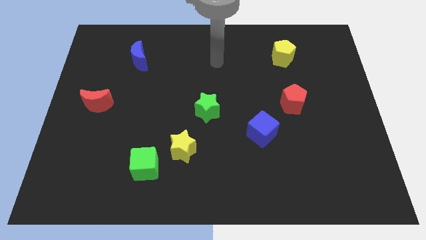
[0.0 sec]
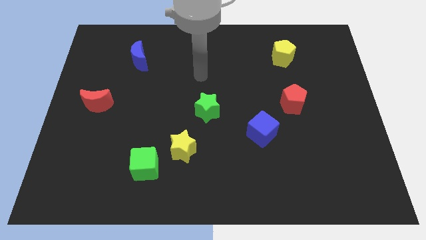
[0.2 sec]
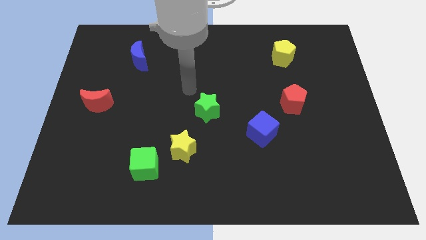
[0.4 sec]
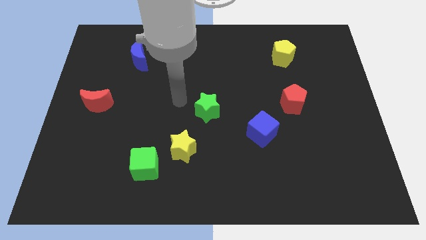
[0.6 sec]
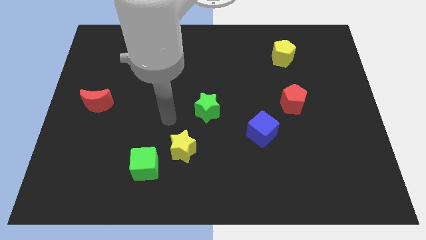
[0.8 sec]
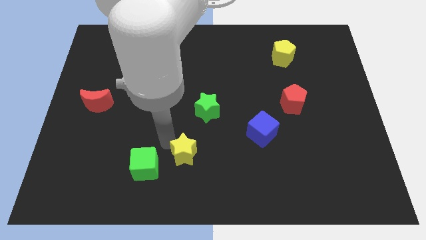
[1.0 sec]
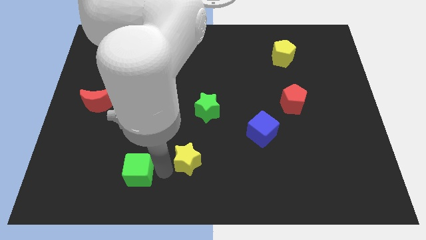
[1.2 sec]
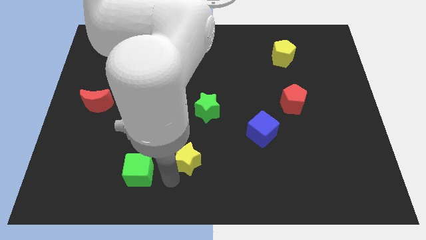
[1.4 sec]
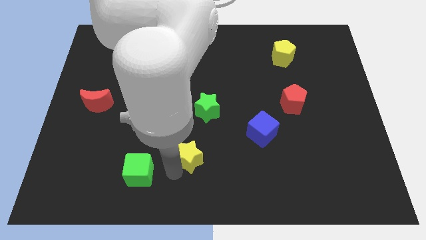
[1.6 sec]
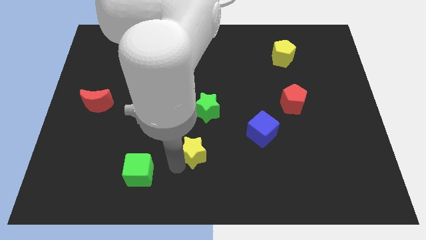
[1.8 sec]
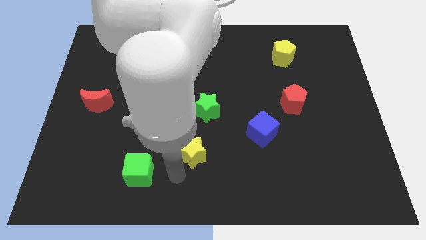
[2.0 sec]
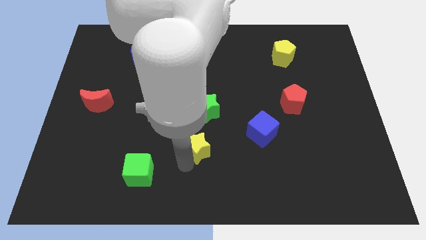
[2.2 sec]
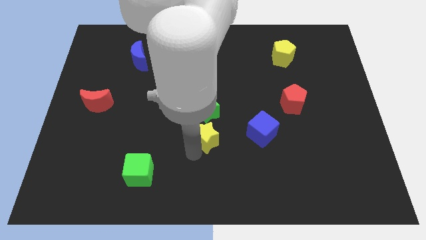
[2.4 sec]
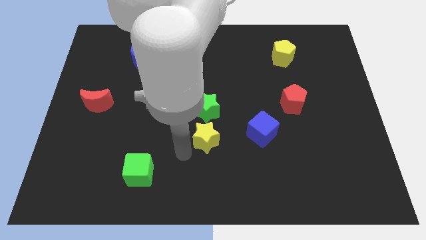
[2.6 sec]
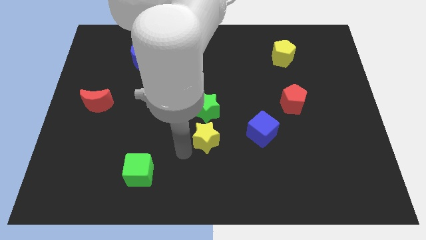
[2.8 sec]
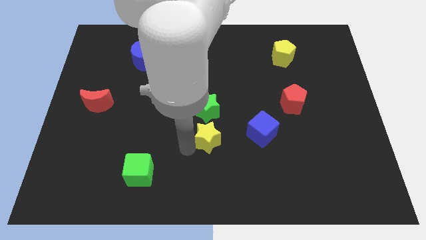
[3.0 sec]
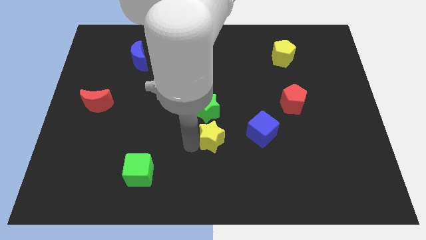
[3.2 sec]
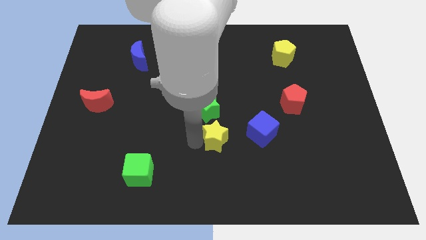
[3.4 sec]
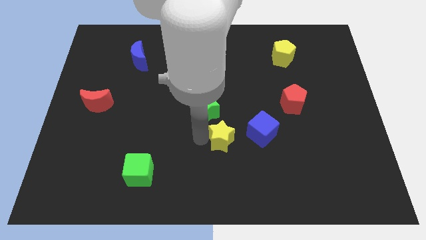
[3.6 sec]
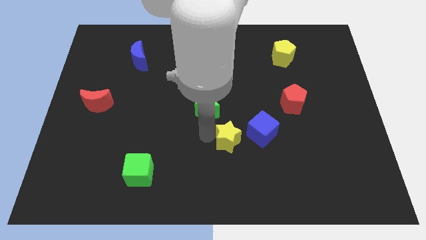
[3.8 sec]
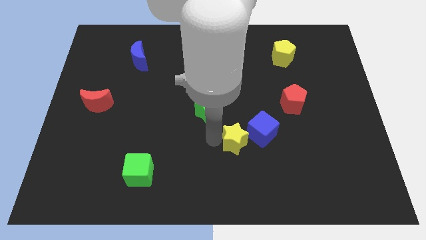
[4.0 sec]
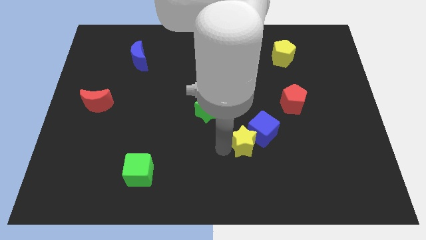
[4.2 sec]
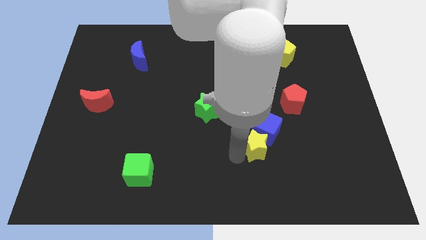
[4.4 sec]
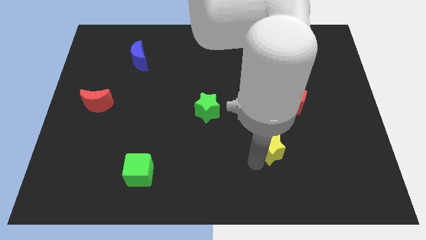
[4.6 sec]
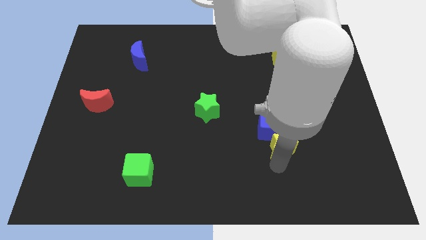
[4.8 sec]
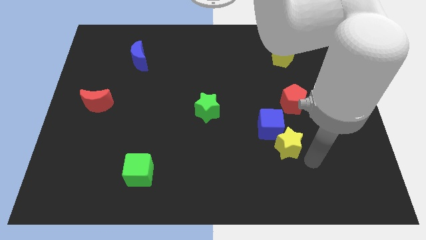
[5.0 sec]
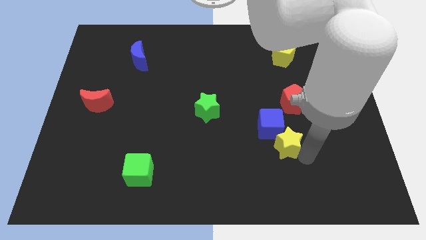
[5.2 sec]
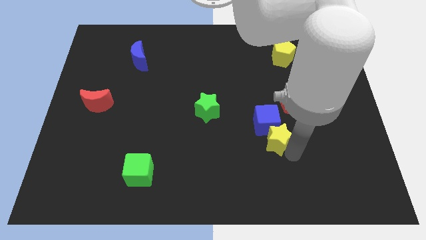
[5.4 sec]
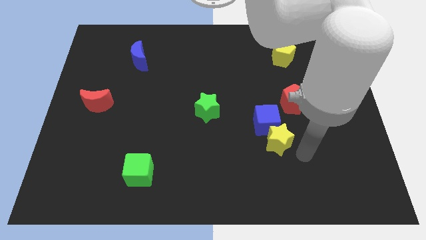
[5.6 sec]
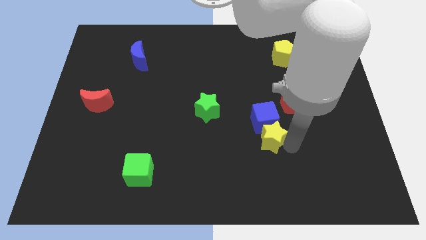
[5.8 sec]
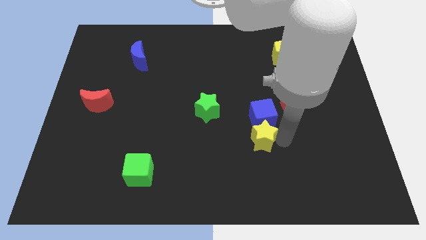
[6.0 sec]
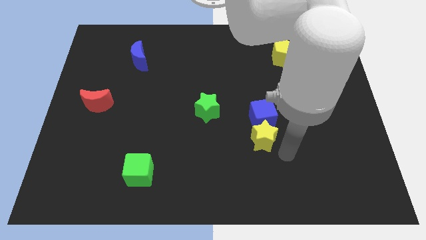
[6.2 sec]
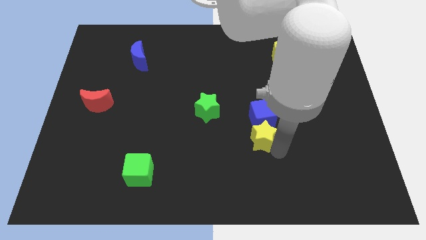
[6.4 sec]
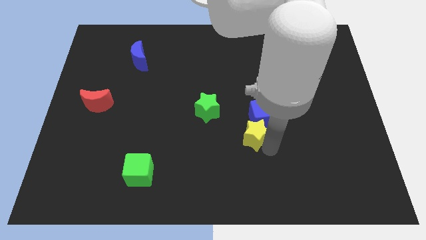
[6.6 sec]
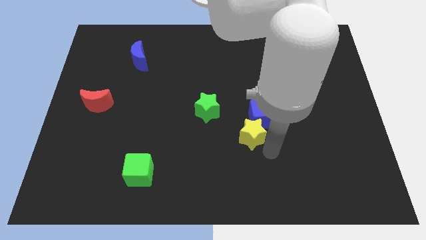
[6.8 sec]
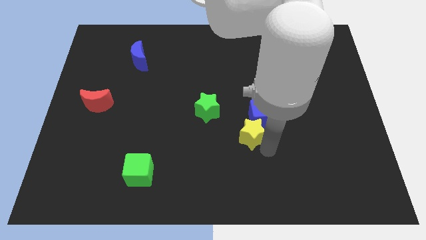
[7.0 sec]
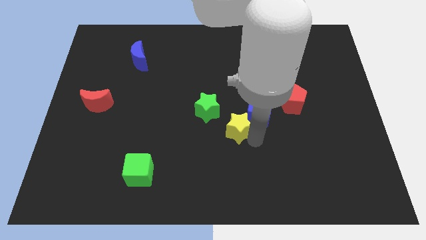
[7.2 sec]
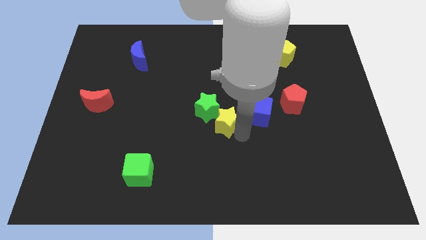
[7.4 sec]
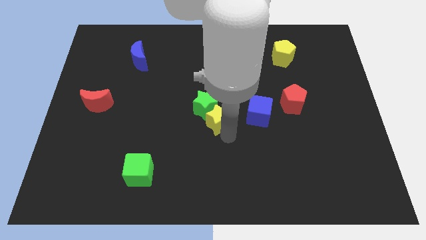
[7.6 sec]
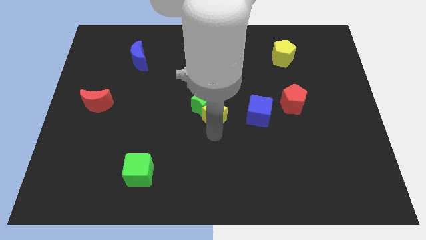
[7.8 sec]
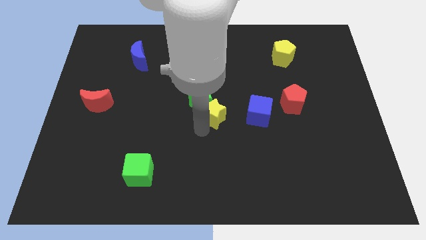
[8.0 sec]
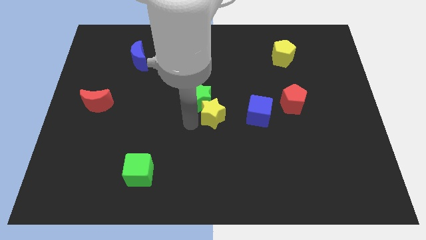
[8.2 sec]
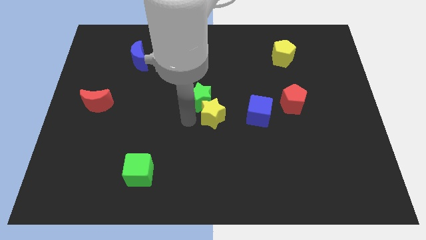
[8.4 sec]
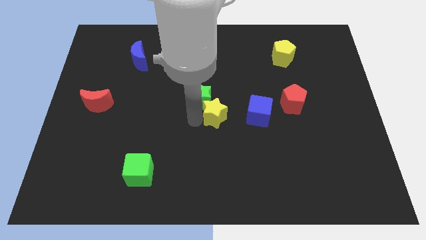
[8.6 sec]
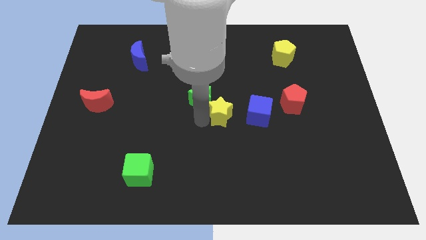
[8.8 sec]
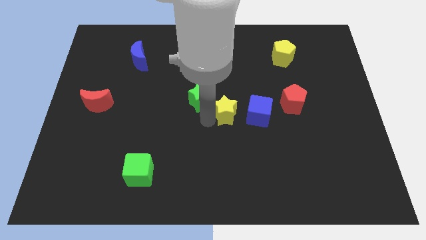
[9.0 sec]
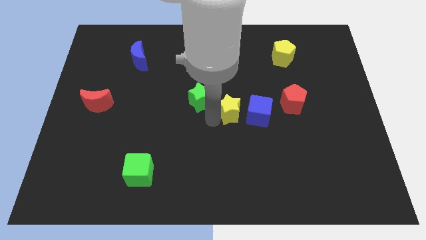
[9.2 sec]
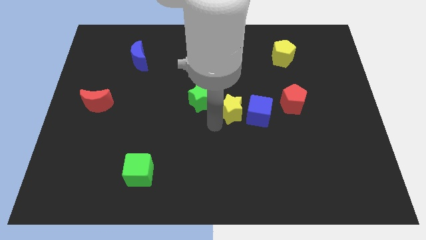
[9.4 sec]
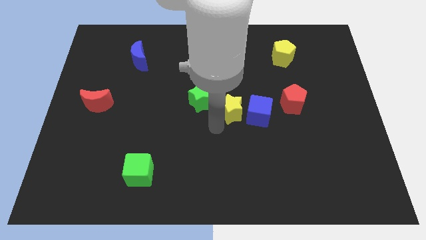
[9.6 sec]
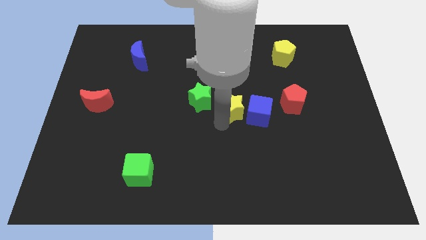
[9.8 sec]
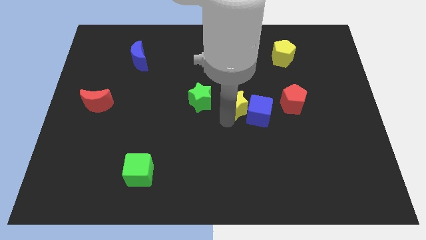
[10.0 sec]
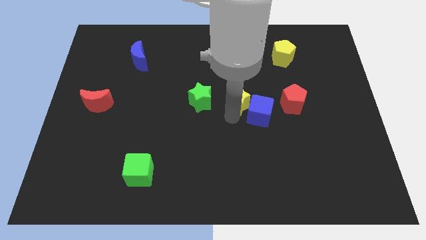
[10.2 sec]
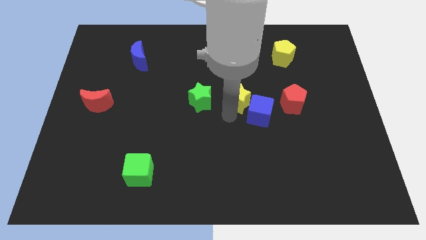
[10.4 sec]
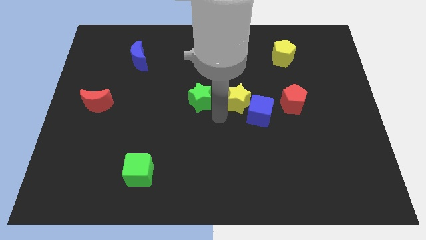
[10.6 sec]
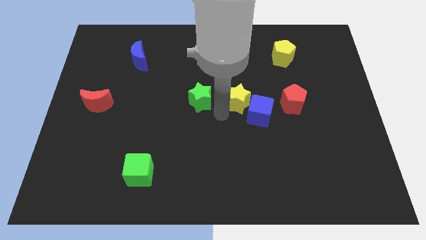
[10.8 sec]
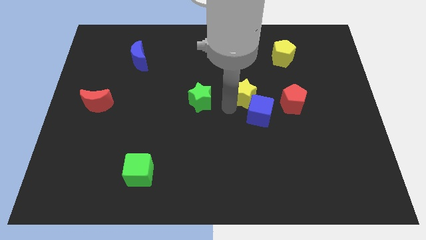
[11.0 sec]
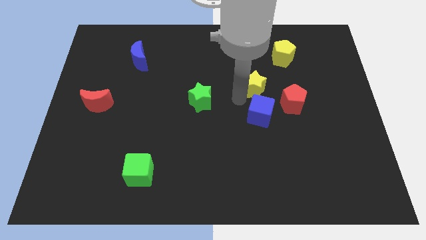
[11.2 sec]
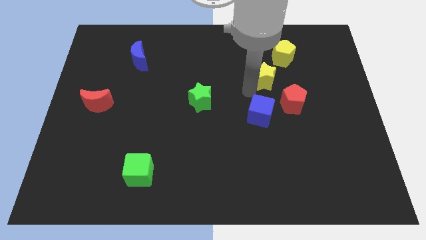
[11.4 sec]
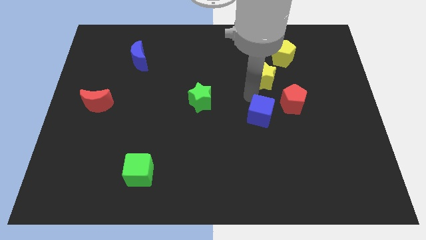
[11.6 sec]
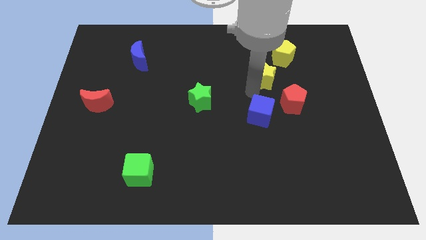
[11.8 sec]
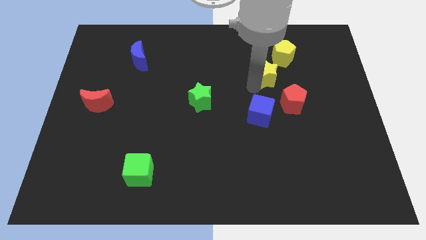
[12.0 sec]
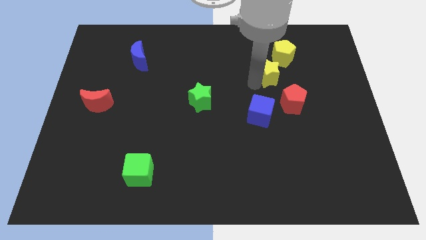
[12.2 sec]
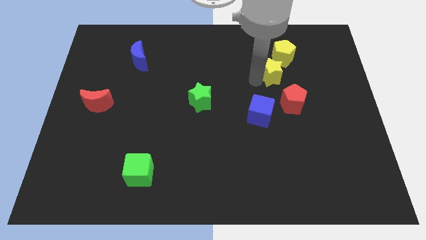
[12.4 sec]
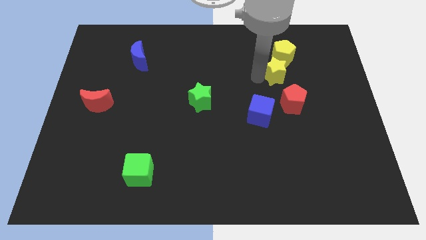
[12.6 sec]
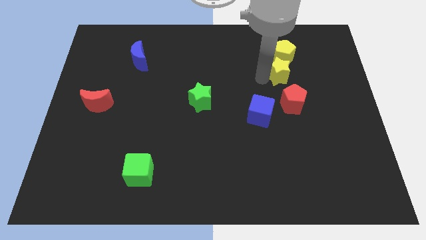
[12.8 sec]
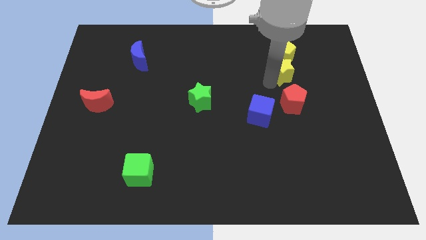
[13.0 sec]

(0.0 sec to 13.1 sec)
move the yellow star close to the yellow pentagon

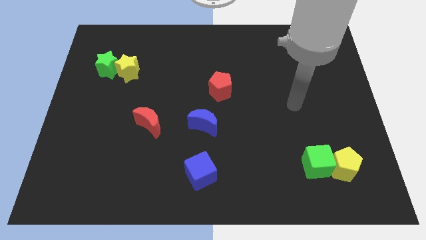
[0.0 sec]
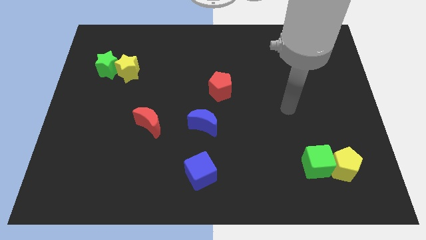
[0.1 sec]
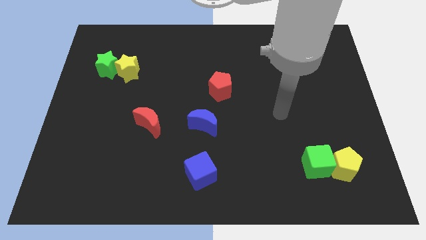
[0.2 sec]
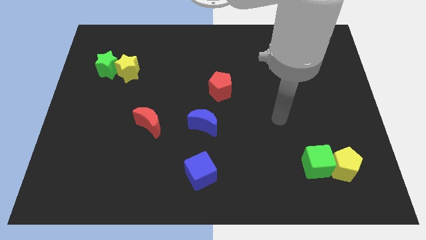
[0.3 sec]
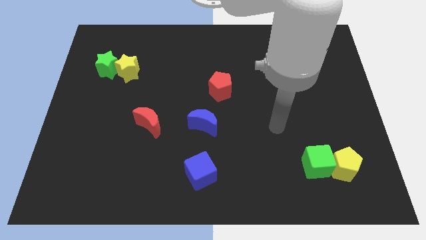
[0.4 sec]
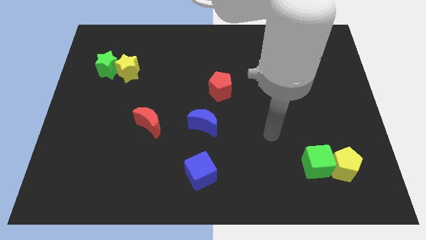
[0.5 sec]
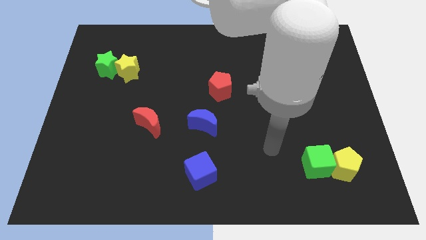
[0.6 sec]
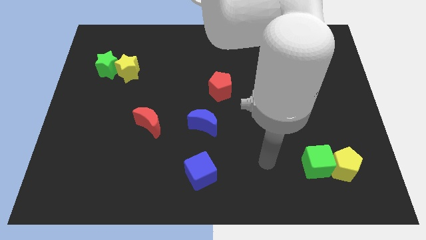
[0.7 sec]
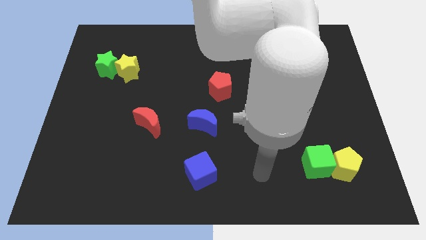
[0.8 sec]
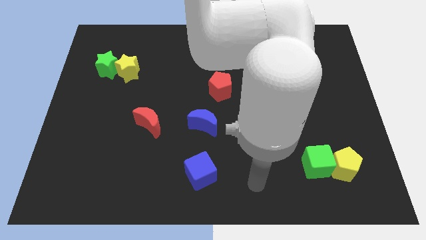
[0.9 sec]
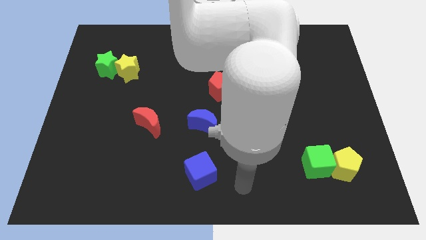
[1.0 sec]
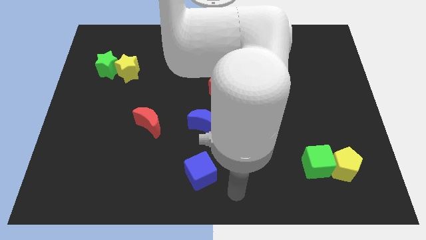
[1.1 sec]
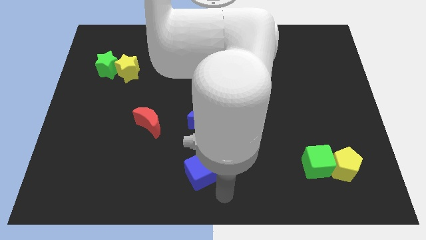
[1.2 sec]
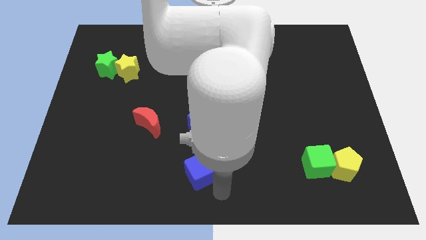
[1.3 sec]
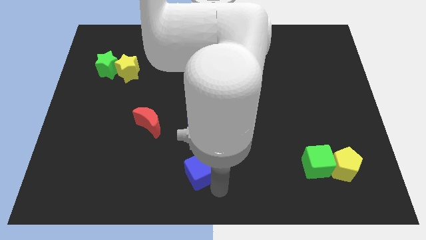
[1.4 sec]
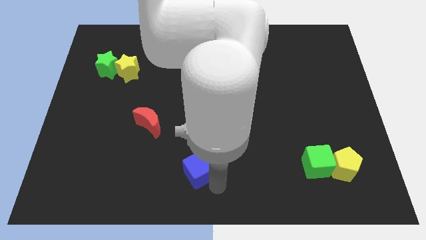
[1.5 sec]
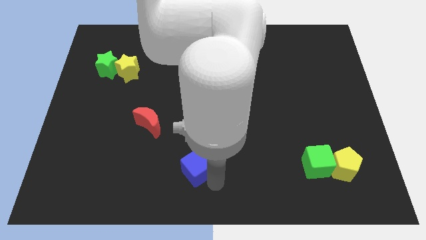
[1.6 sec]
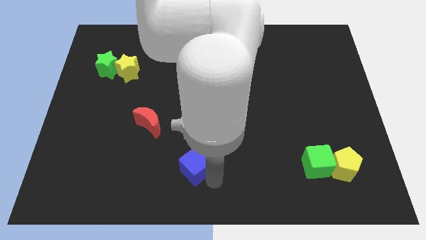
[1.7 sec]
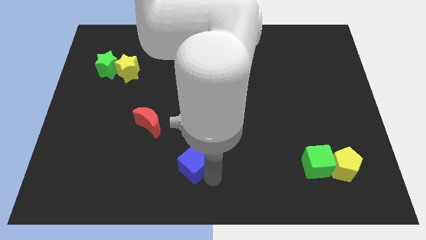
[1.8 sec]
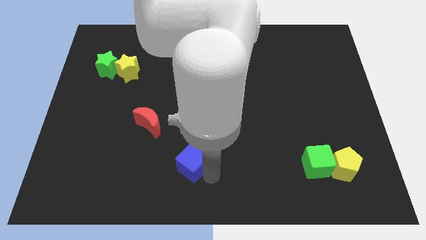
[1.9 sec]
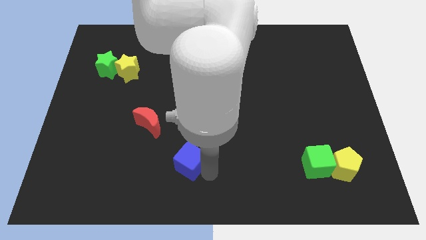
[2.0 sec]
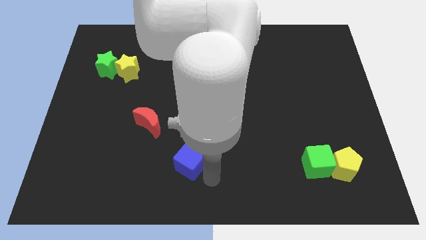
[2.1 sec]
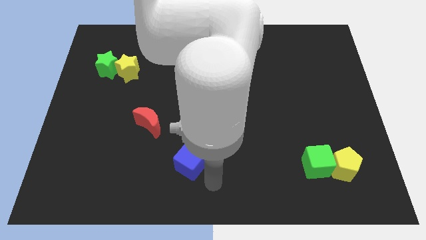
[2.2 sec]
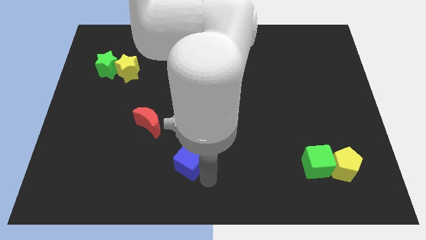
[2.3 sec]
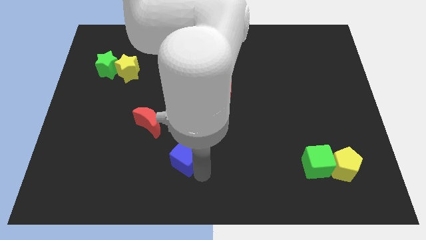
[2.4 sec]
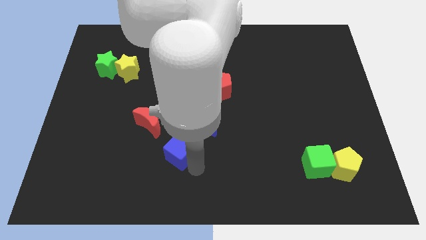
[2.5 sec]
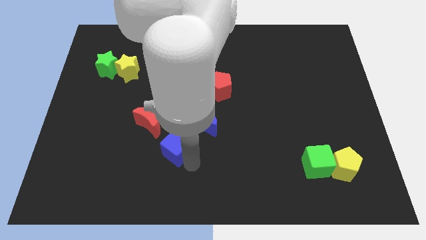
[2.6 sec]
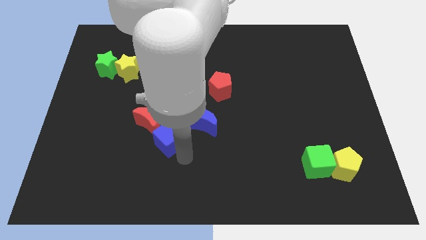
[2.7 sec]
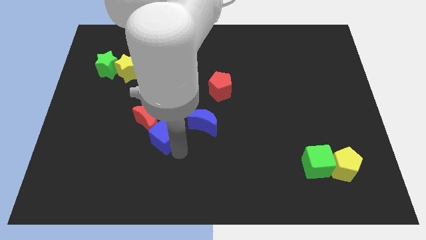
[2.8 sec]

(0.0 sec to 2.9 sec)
move the blue cube next to the red moon
